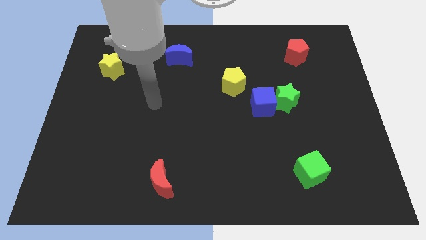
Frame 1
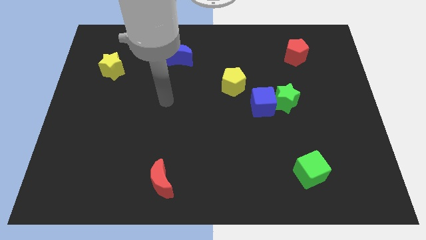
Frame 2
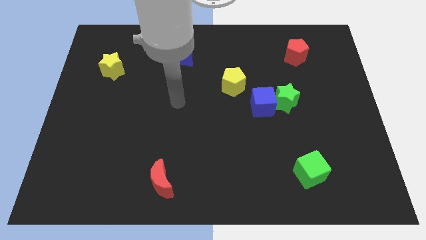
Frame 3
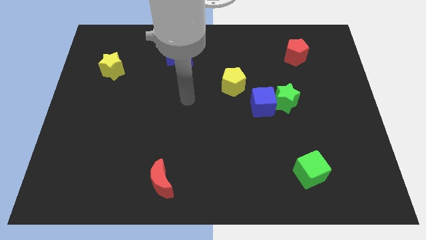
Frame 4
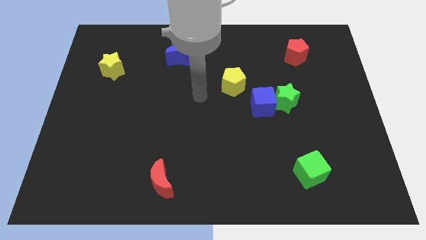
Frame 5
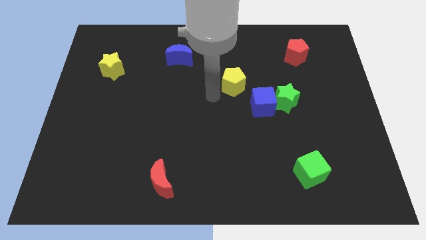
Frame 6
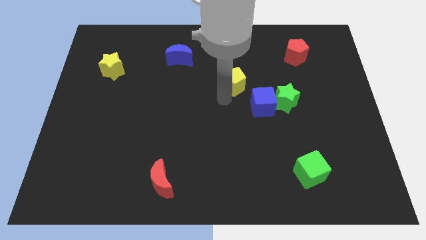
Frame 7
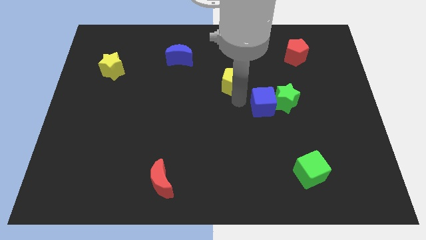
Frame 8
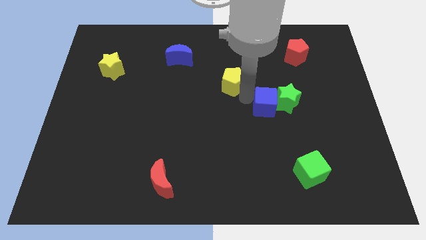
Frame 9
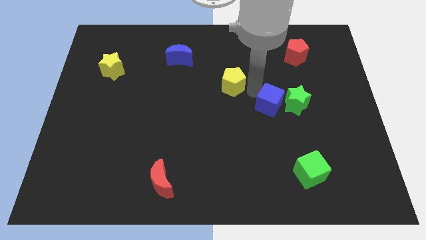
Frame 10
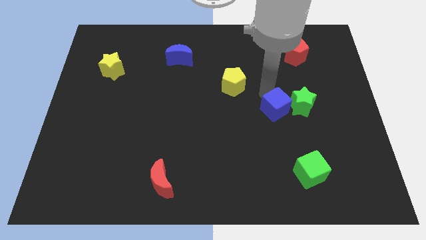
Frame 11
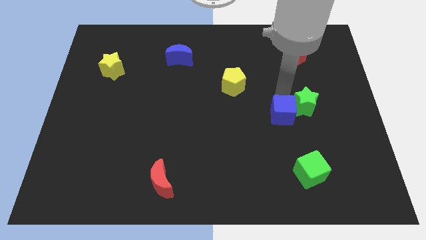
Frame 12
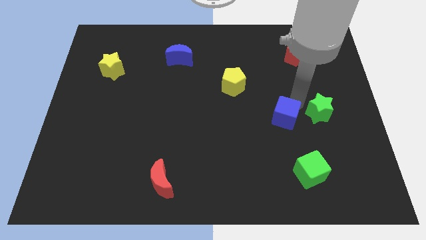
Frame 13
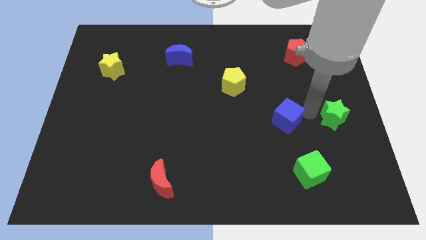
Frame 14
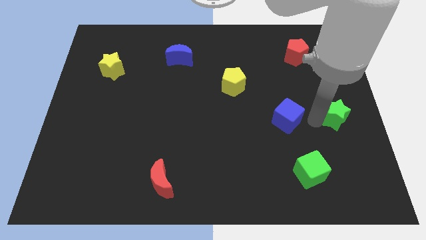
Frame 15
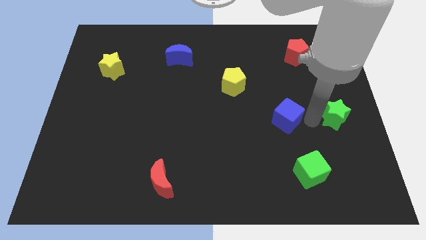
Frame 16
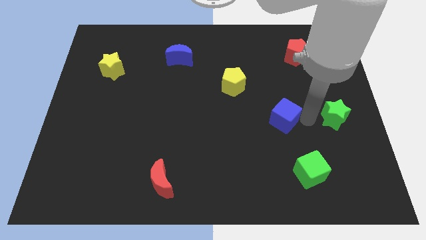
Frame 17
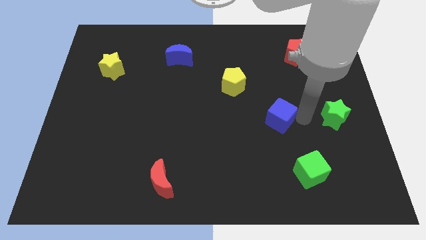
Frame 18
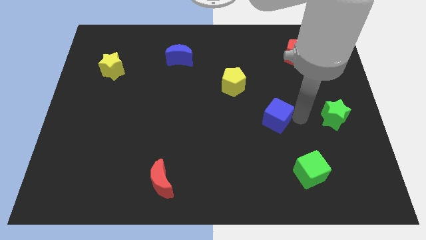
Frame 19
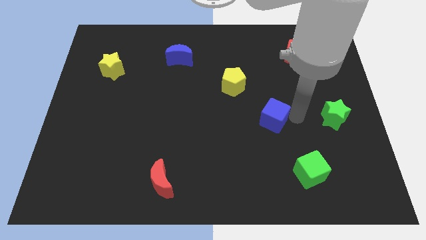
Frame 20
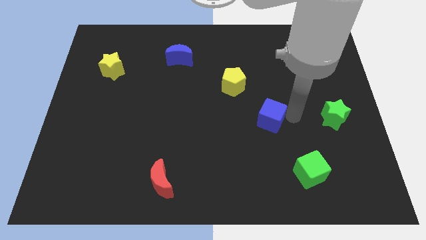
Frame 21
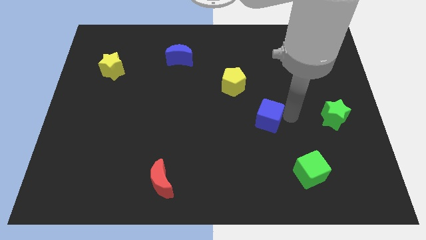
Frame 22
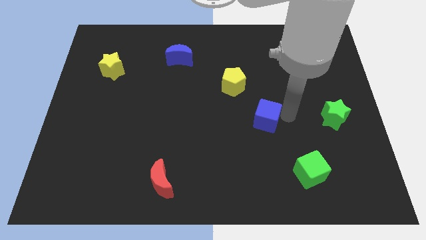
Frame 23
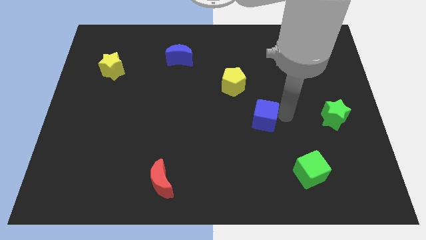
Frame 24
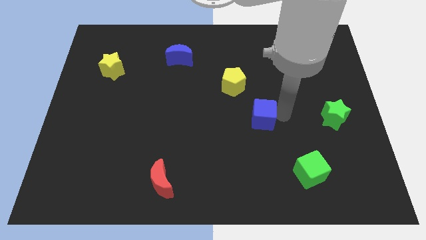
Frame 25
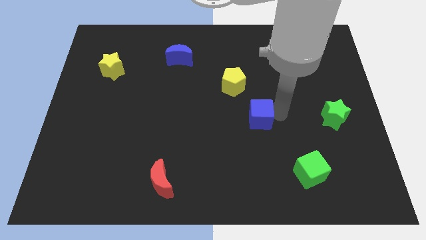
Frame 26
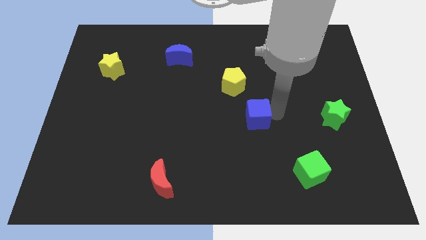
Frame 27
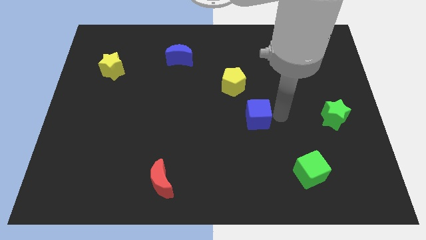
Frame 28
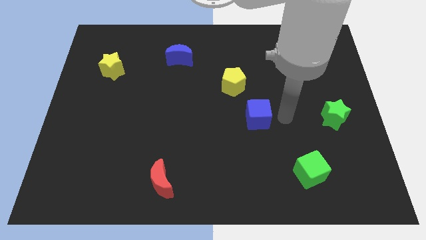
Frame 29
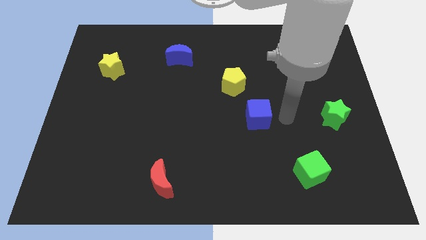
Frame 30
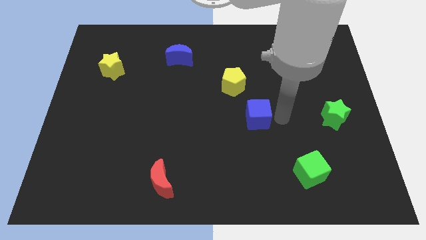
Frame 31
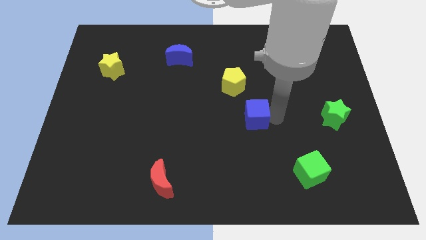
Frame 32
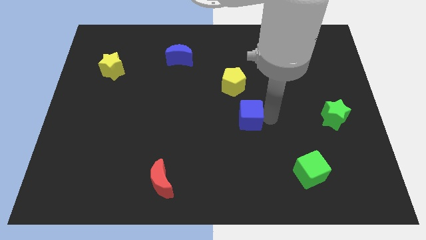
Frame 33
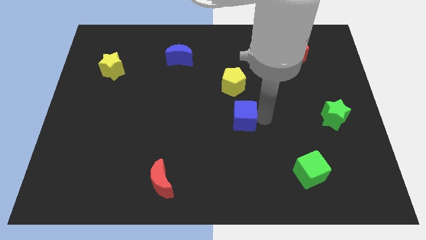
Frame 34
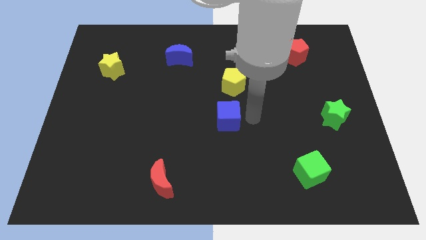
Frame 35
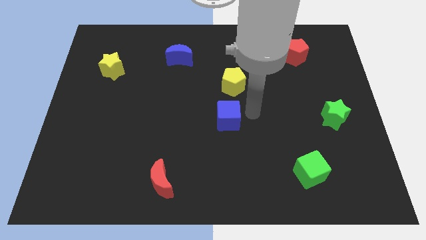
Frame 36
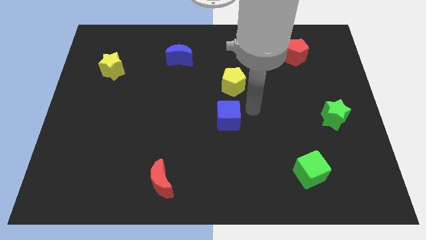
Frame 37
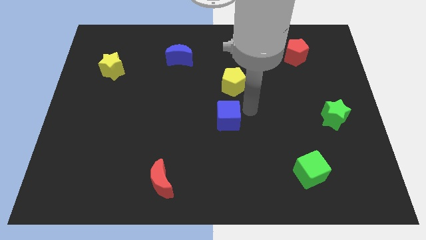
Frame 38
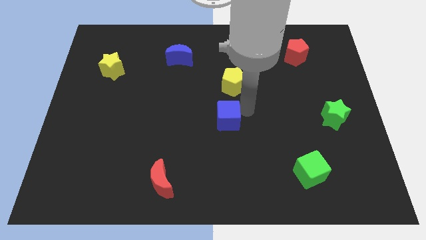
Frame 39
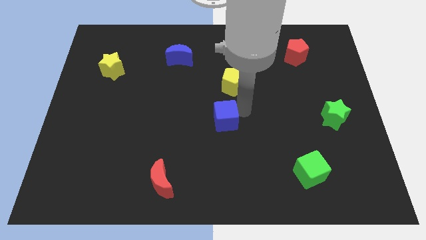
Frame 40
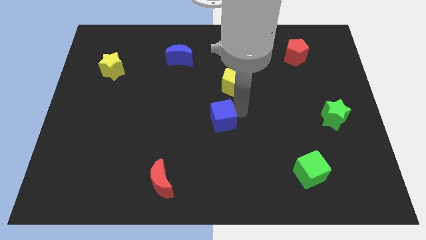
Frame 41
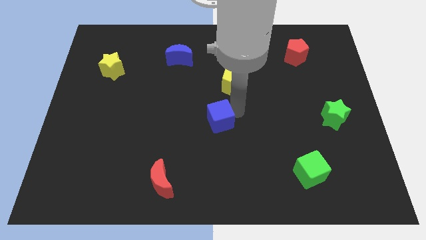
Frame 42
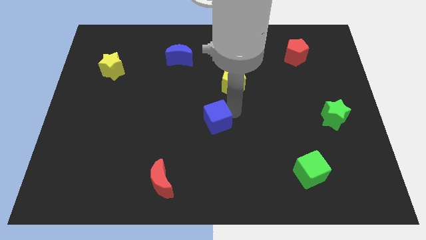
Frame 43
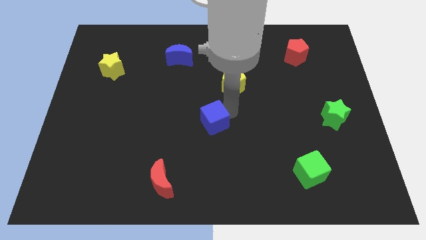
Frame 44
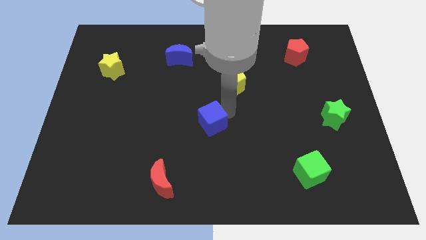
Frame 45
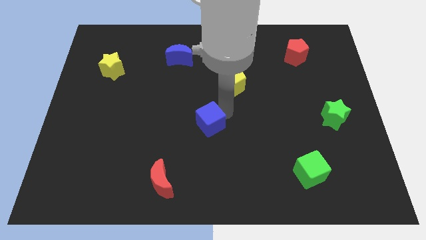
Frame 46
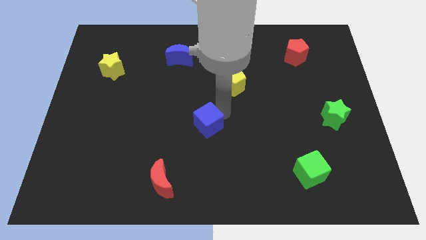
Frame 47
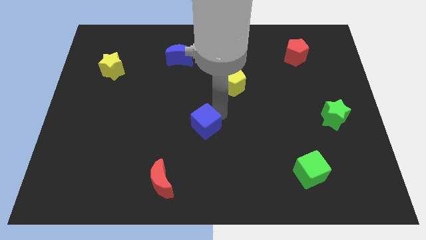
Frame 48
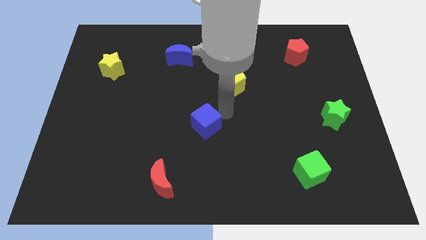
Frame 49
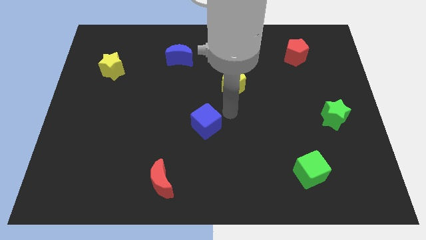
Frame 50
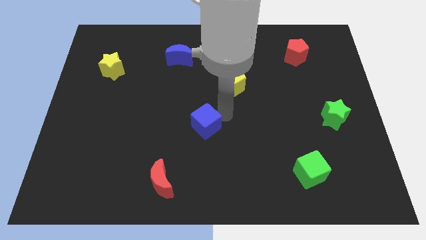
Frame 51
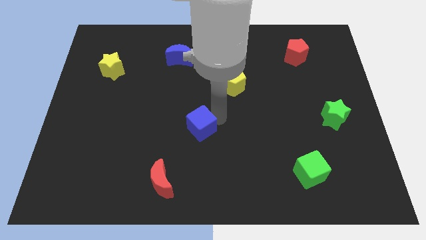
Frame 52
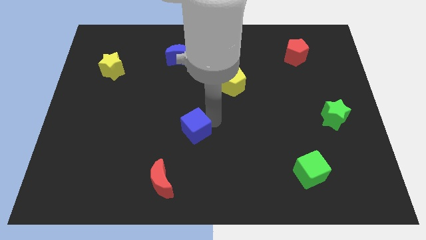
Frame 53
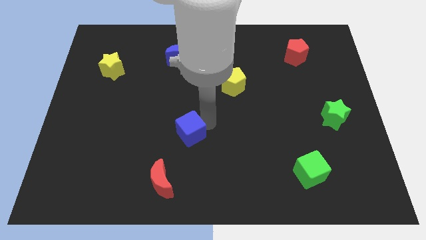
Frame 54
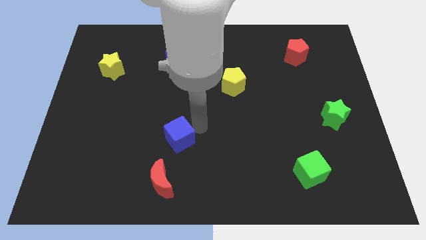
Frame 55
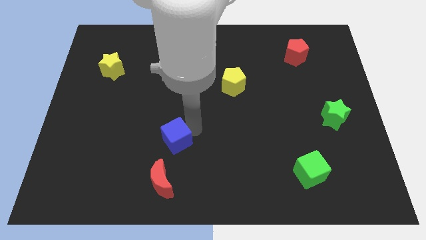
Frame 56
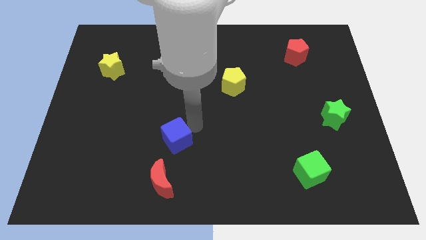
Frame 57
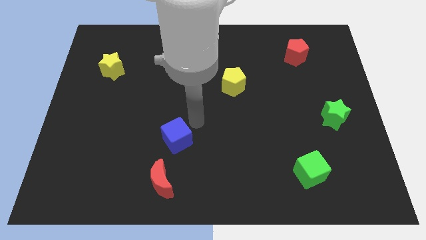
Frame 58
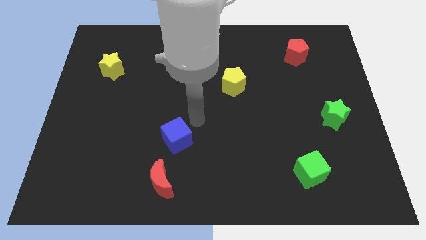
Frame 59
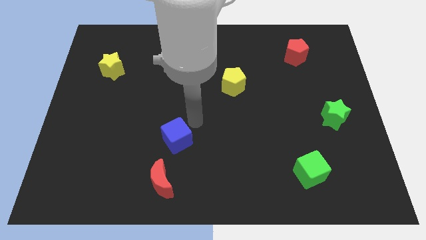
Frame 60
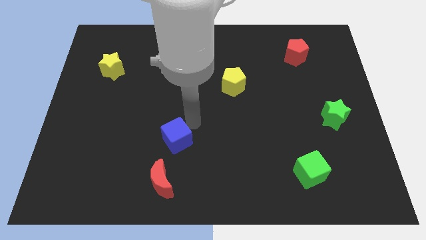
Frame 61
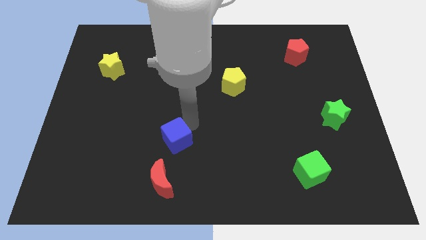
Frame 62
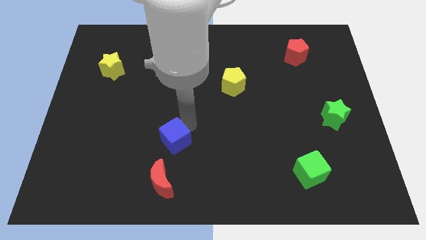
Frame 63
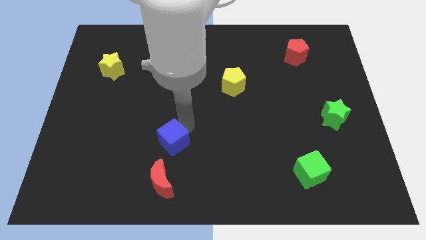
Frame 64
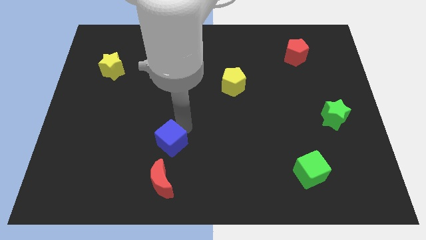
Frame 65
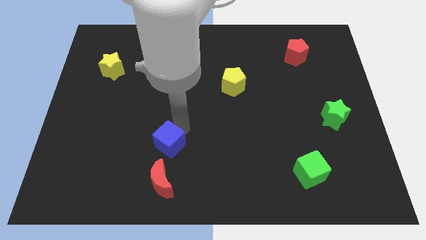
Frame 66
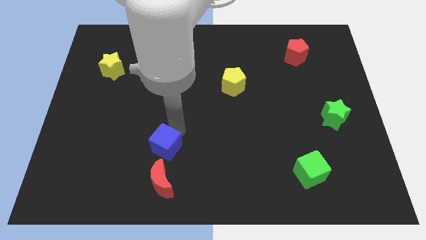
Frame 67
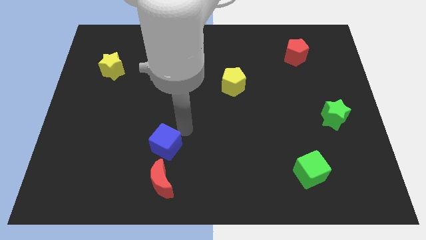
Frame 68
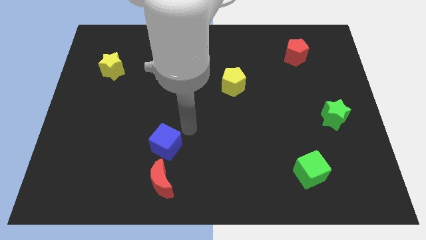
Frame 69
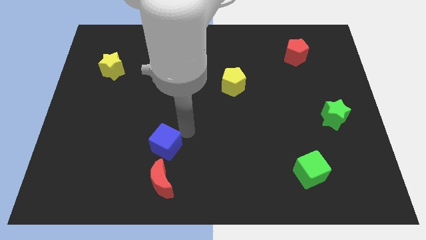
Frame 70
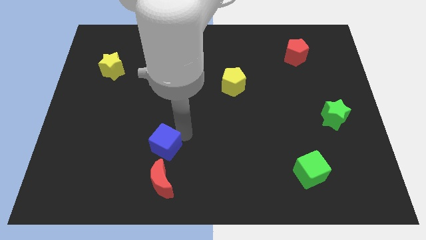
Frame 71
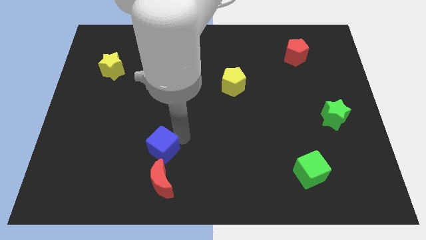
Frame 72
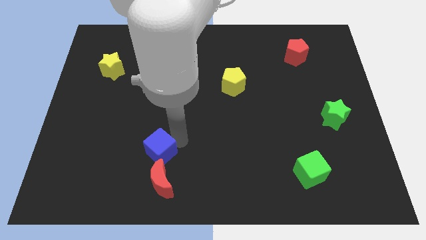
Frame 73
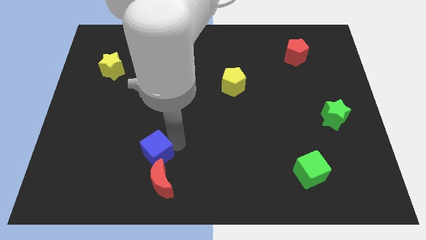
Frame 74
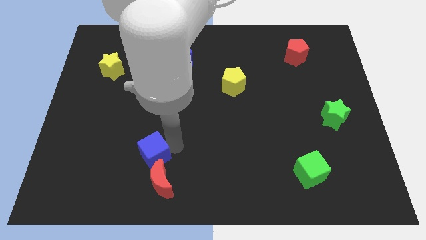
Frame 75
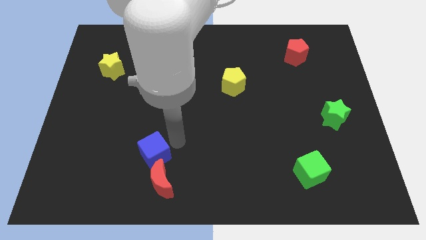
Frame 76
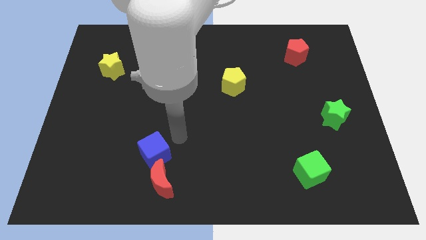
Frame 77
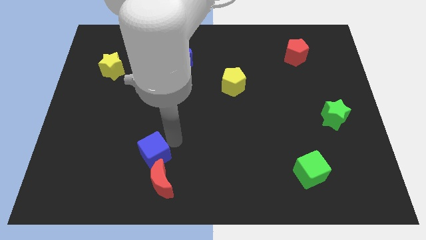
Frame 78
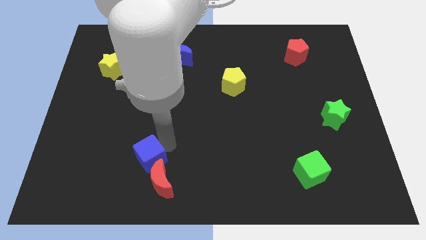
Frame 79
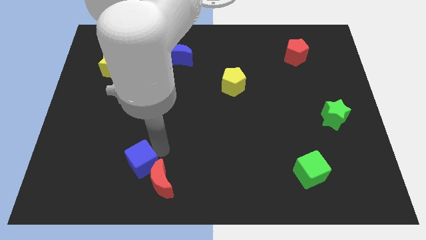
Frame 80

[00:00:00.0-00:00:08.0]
slide the blue cube to the left side of the red moon
